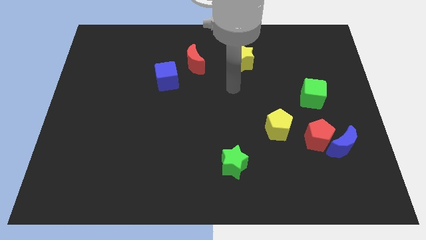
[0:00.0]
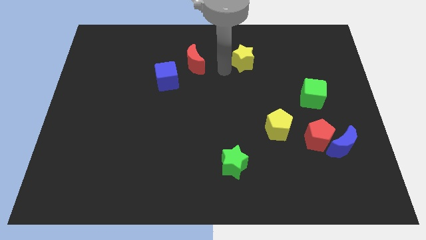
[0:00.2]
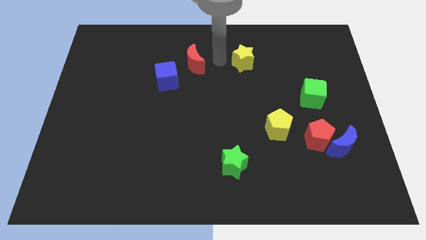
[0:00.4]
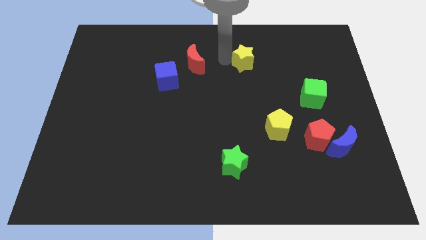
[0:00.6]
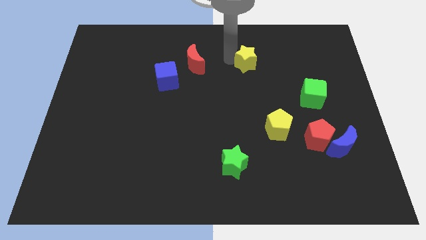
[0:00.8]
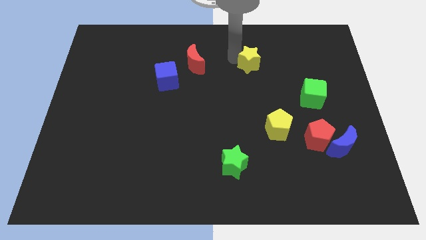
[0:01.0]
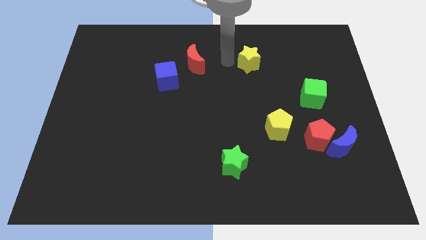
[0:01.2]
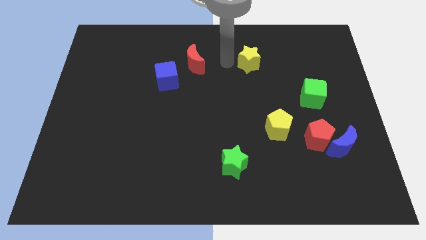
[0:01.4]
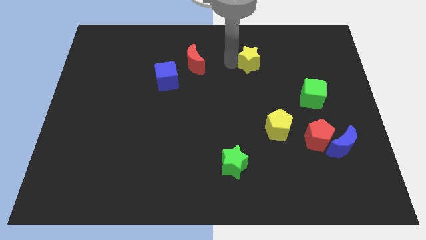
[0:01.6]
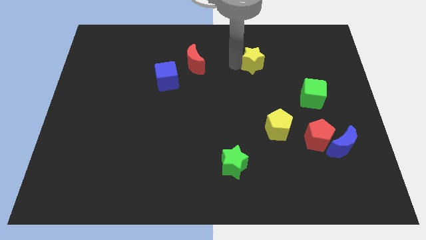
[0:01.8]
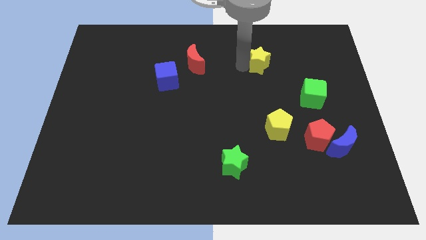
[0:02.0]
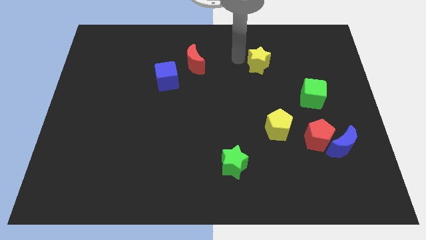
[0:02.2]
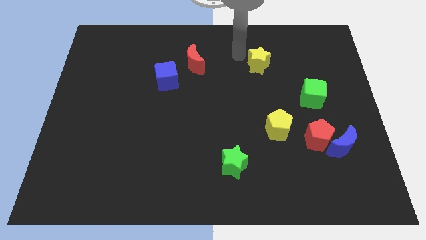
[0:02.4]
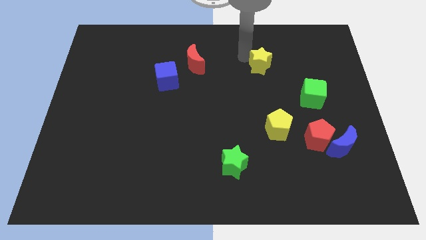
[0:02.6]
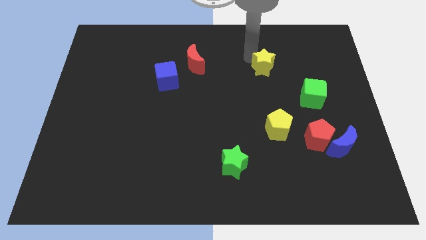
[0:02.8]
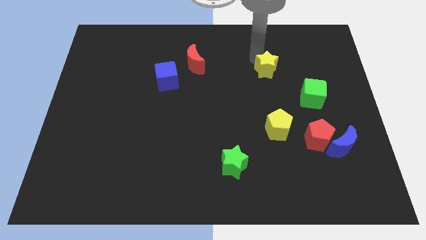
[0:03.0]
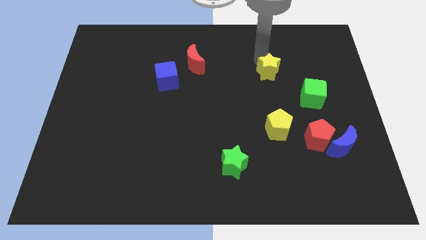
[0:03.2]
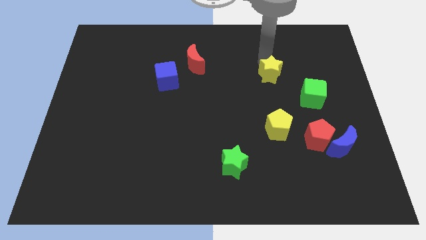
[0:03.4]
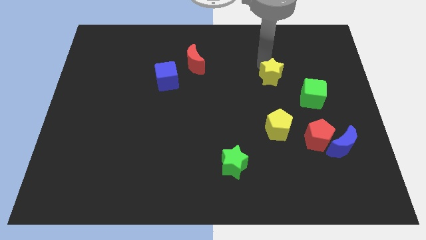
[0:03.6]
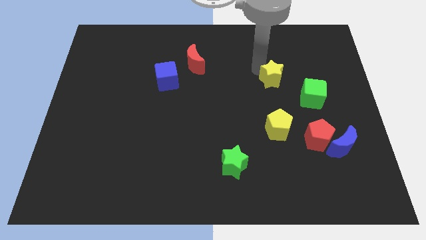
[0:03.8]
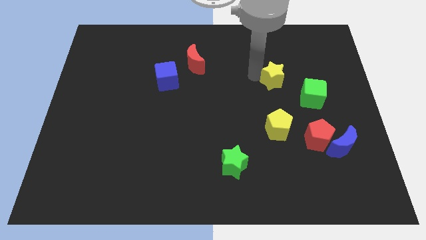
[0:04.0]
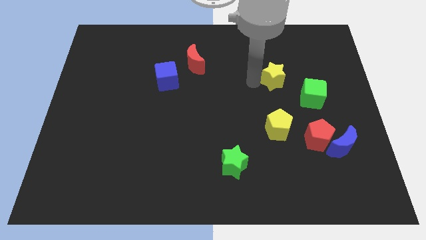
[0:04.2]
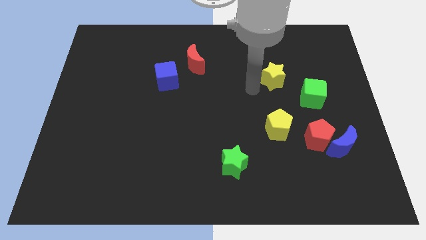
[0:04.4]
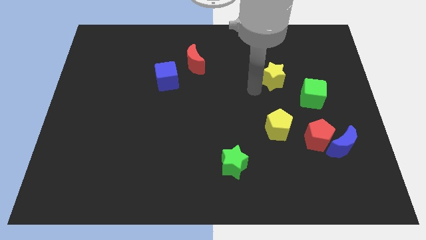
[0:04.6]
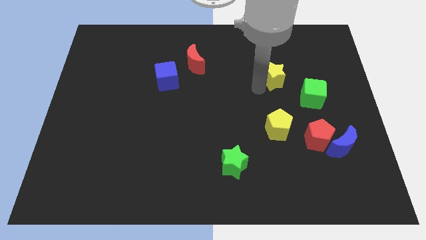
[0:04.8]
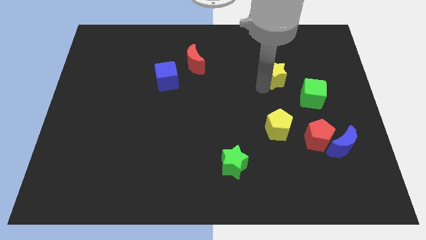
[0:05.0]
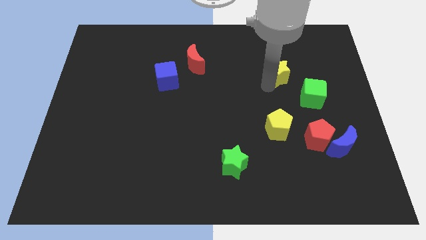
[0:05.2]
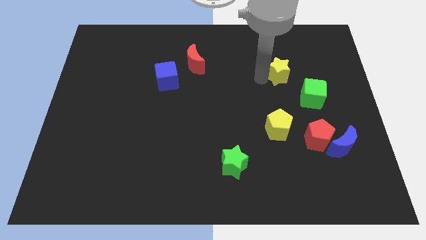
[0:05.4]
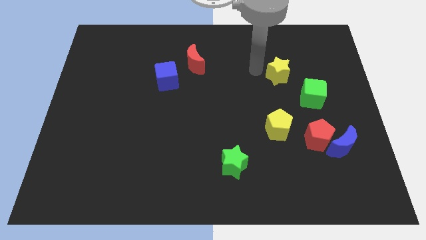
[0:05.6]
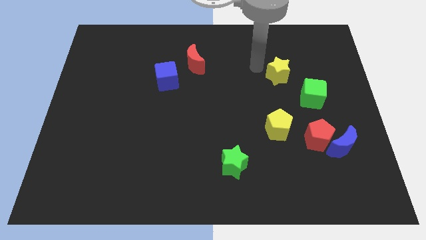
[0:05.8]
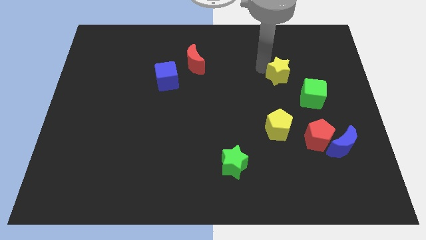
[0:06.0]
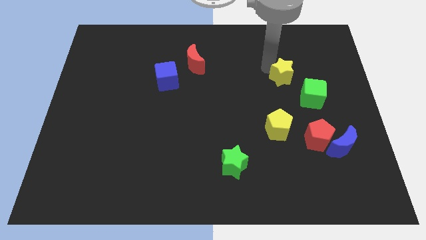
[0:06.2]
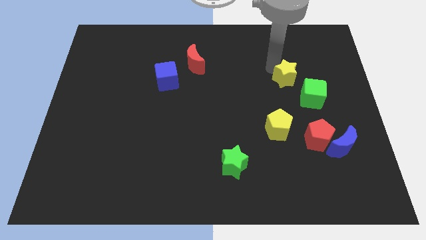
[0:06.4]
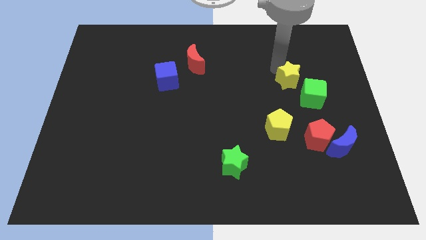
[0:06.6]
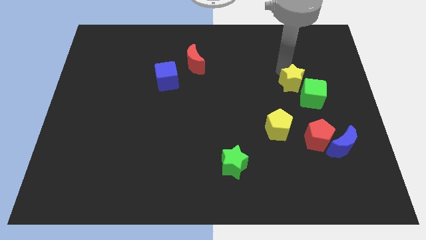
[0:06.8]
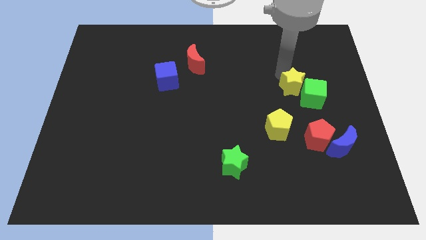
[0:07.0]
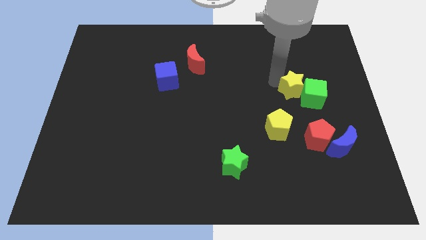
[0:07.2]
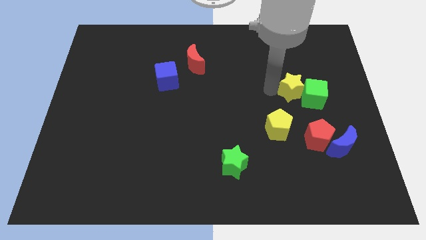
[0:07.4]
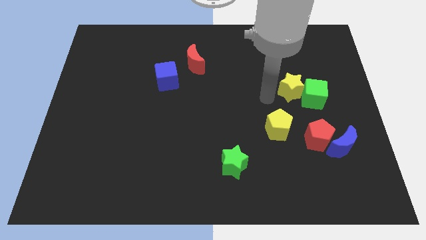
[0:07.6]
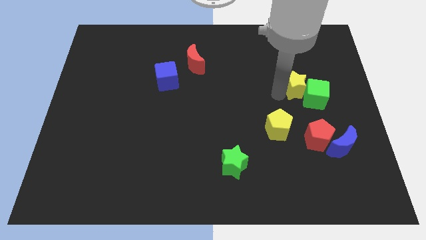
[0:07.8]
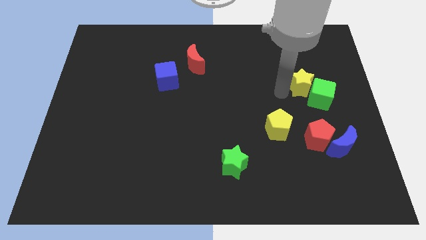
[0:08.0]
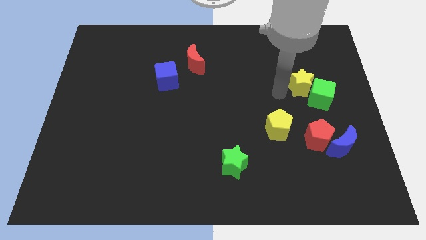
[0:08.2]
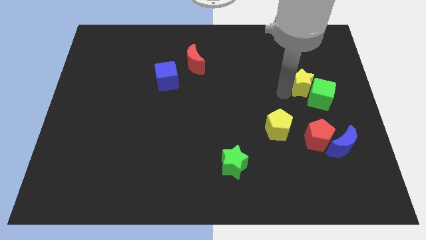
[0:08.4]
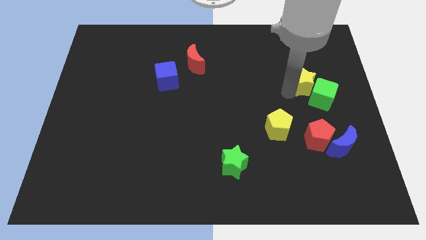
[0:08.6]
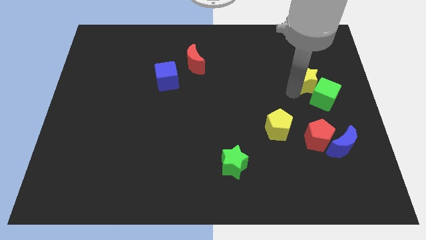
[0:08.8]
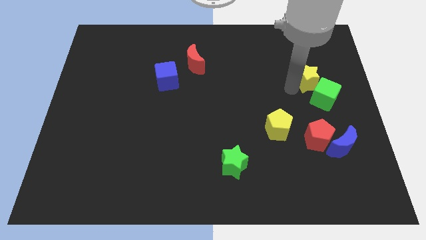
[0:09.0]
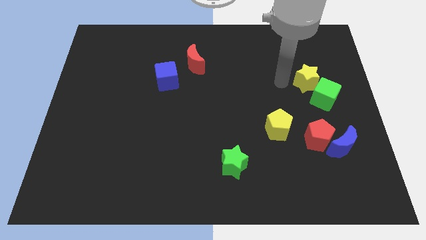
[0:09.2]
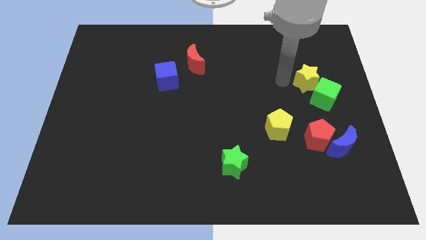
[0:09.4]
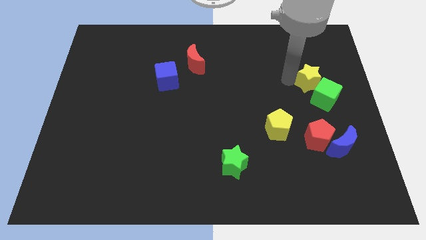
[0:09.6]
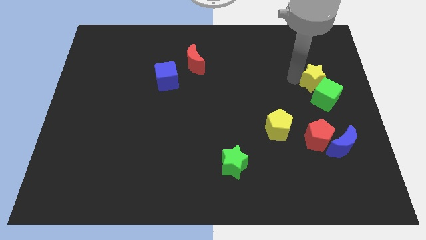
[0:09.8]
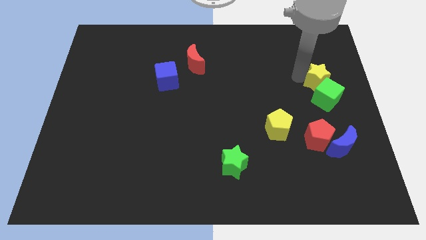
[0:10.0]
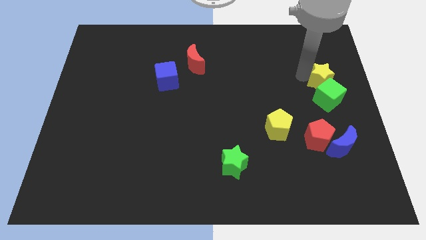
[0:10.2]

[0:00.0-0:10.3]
move the yellow star to the center right
